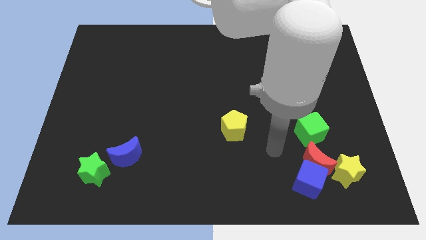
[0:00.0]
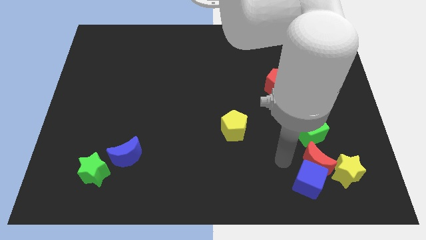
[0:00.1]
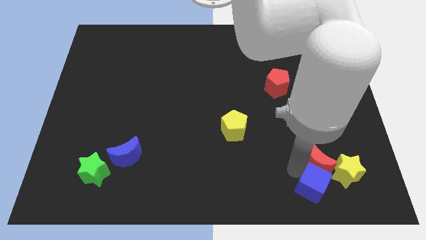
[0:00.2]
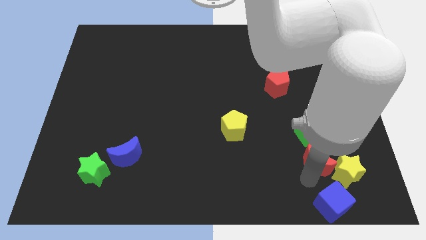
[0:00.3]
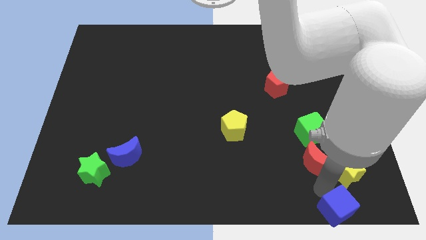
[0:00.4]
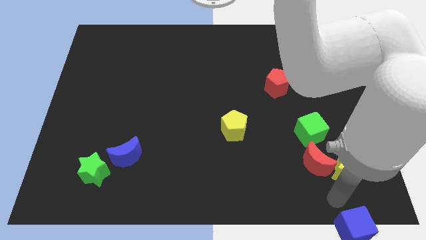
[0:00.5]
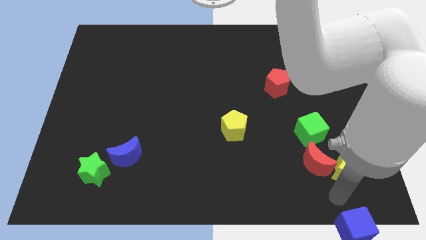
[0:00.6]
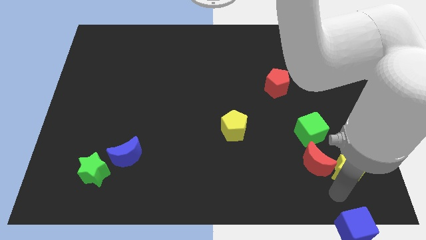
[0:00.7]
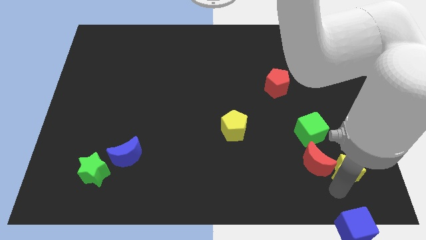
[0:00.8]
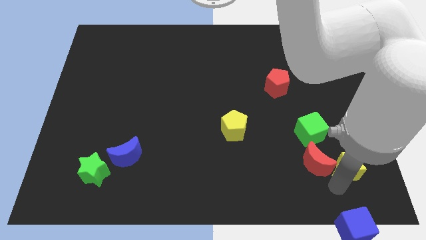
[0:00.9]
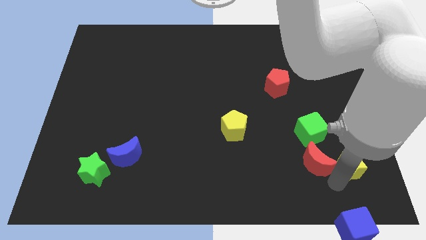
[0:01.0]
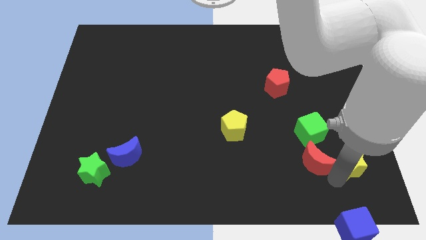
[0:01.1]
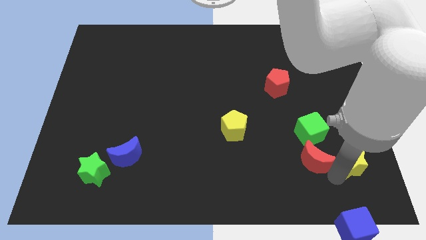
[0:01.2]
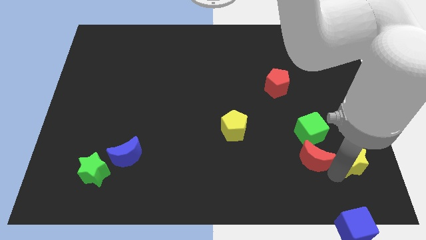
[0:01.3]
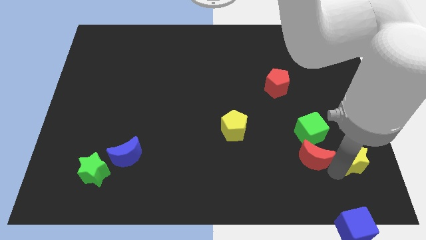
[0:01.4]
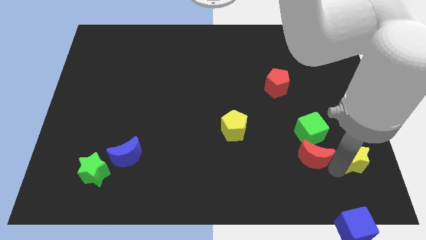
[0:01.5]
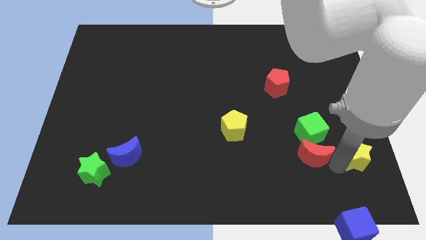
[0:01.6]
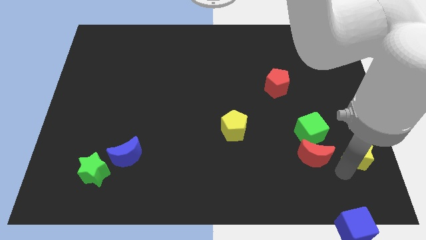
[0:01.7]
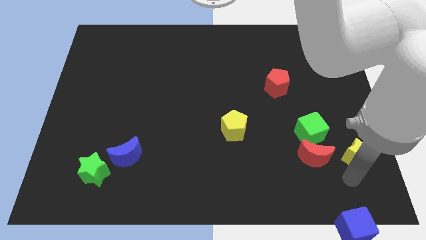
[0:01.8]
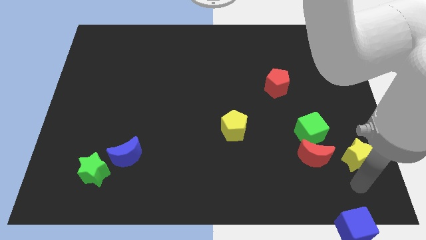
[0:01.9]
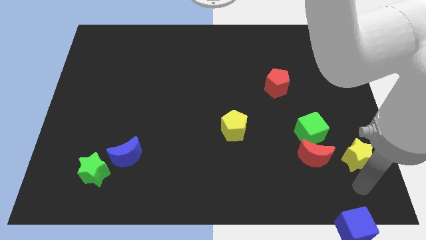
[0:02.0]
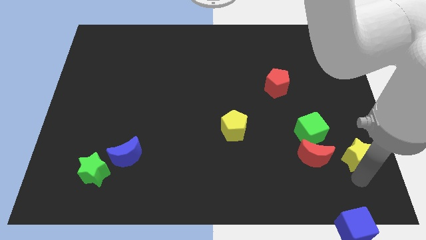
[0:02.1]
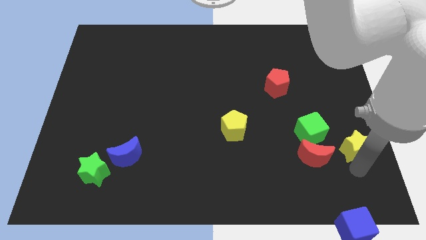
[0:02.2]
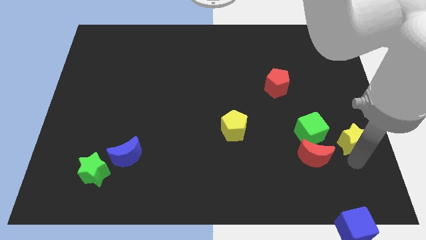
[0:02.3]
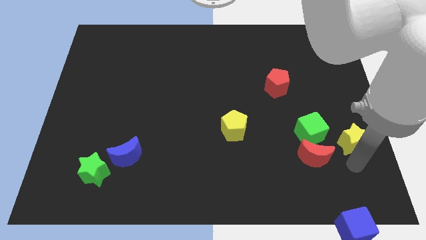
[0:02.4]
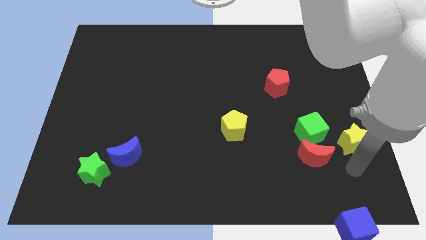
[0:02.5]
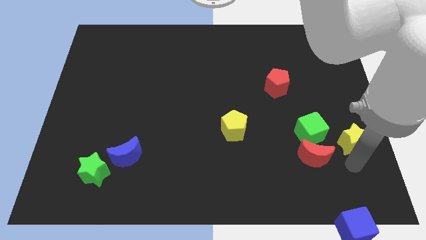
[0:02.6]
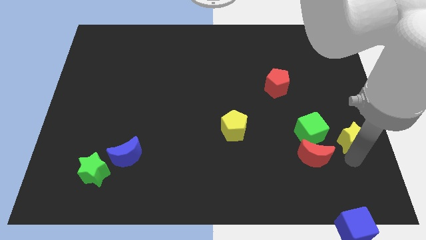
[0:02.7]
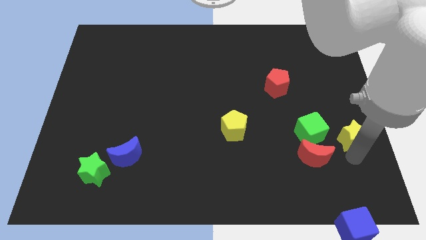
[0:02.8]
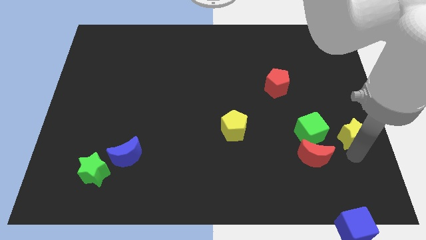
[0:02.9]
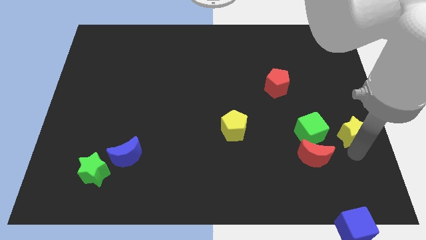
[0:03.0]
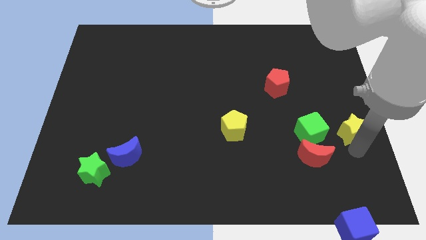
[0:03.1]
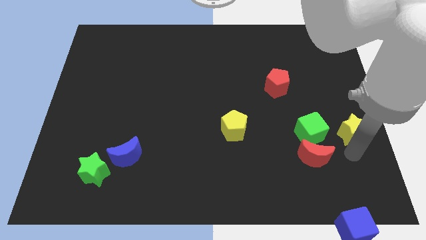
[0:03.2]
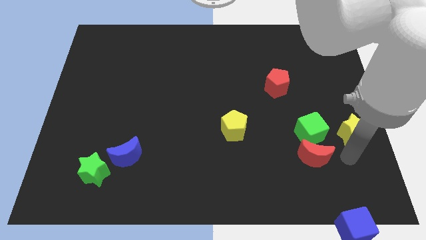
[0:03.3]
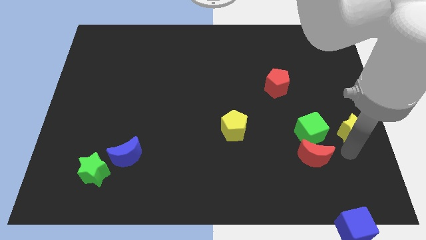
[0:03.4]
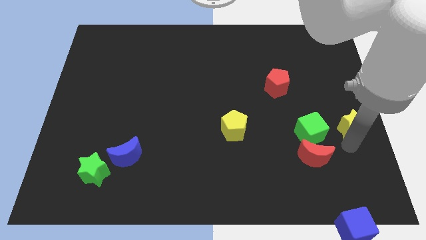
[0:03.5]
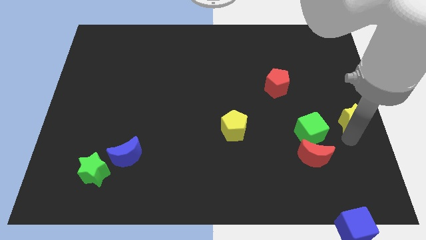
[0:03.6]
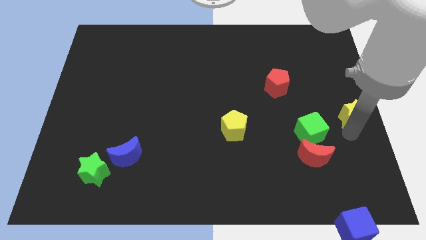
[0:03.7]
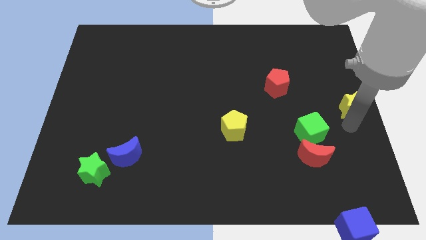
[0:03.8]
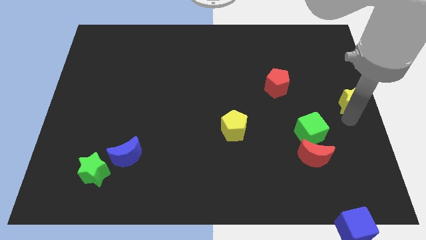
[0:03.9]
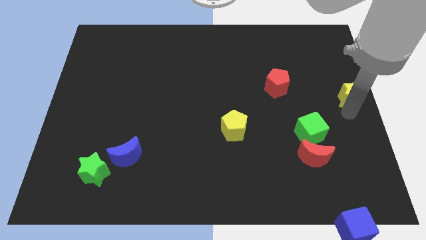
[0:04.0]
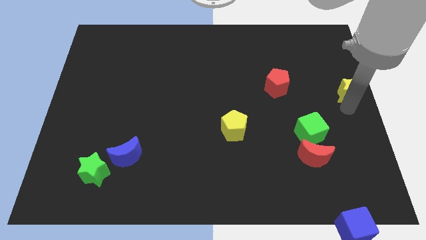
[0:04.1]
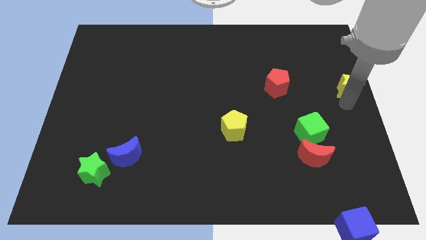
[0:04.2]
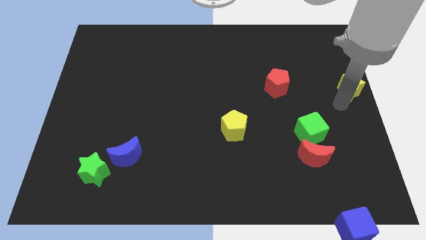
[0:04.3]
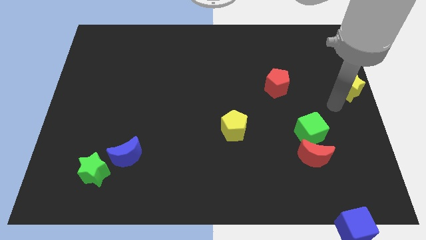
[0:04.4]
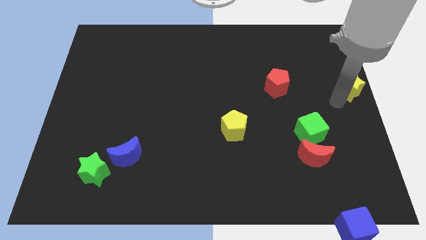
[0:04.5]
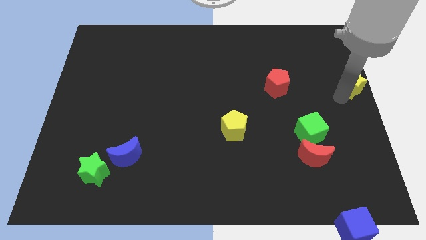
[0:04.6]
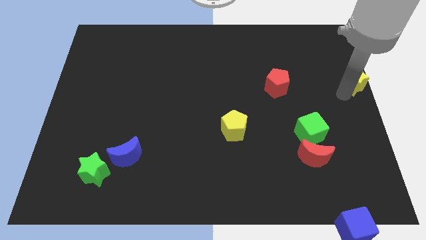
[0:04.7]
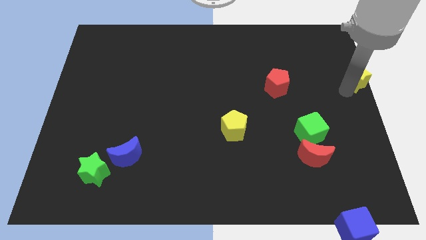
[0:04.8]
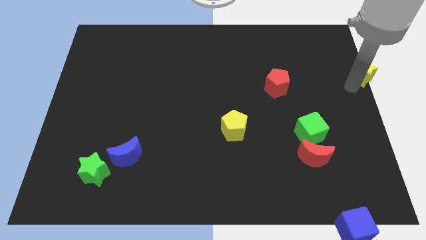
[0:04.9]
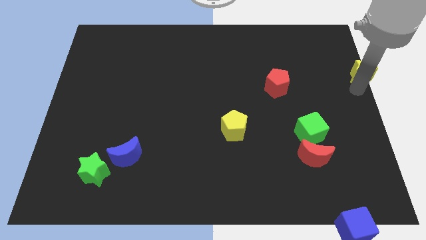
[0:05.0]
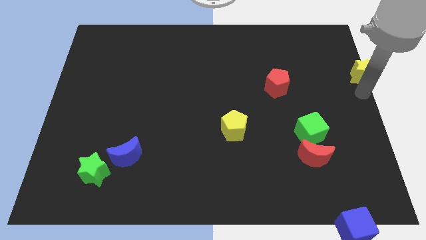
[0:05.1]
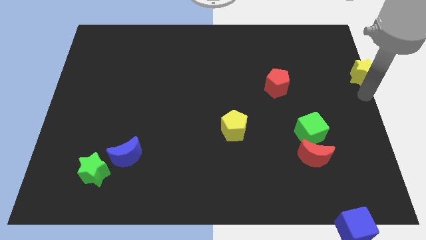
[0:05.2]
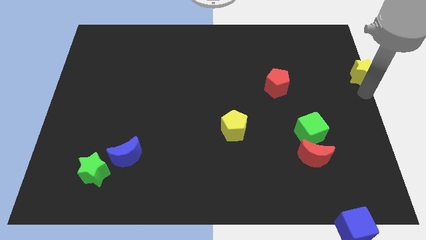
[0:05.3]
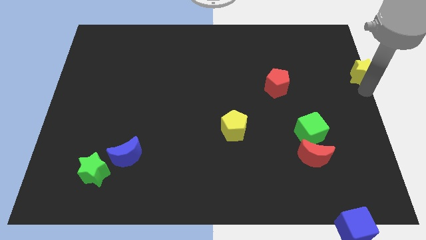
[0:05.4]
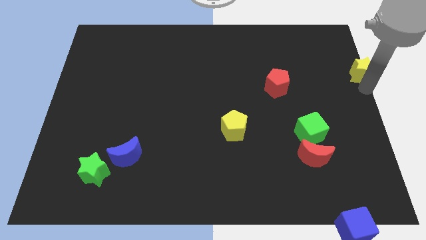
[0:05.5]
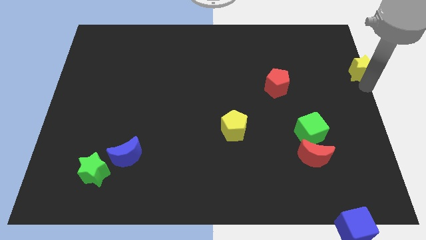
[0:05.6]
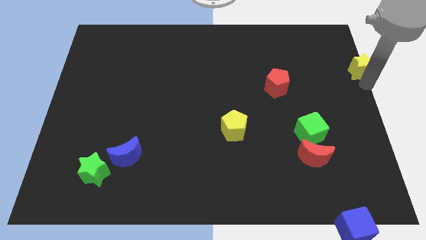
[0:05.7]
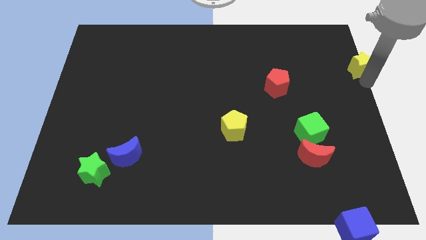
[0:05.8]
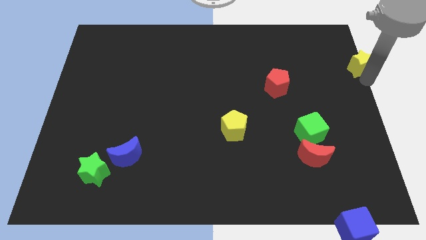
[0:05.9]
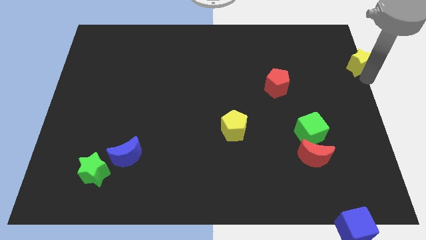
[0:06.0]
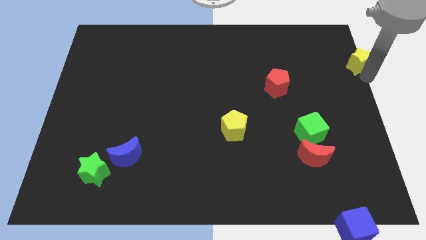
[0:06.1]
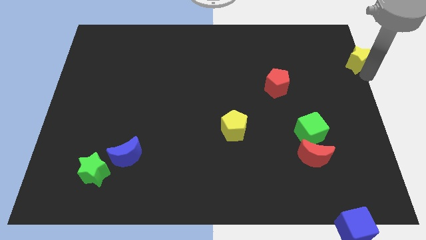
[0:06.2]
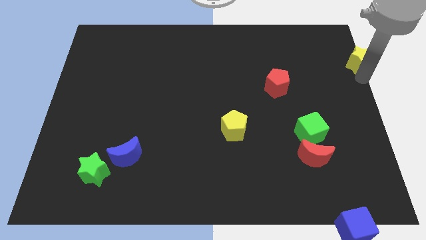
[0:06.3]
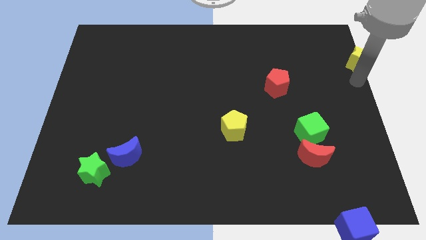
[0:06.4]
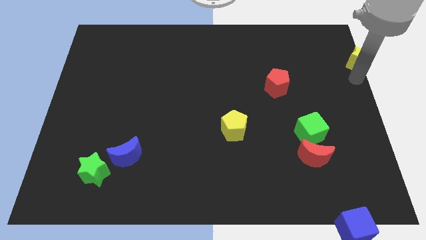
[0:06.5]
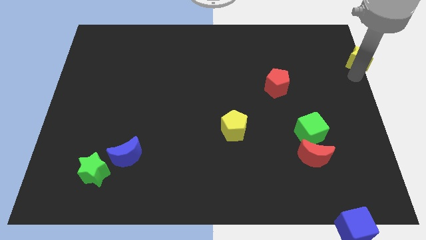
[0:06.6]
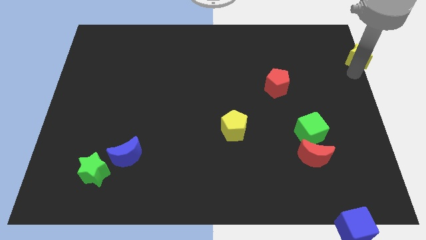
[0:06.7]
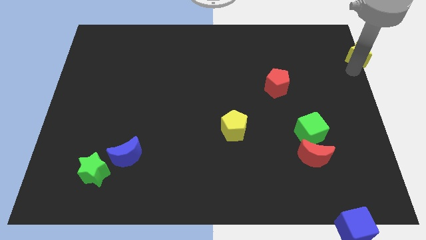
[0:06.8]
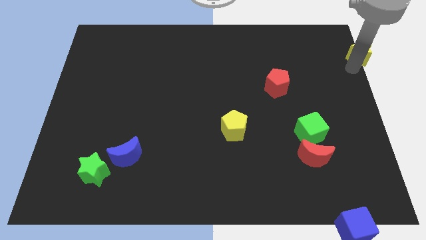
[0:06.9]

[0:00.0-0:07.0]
push the yellow star to the top right

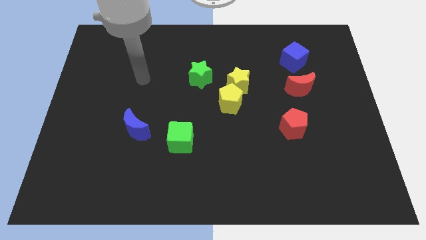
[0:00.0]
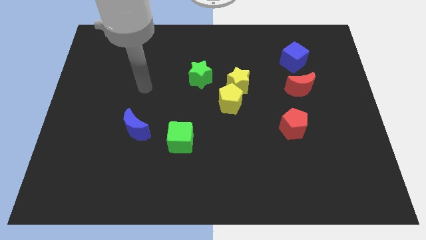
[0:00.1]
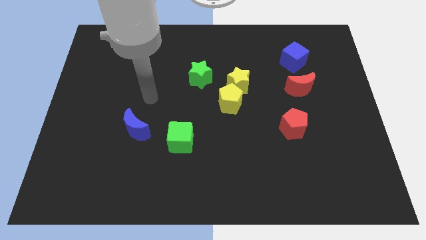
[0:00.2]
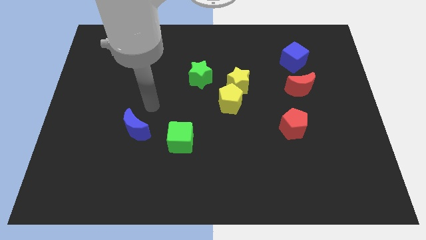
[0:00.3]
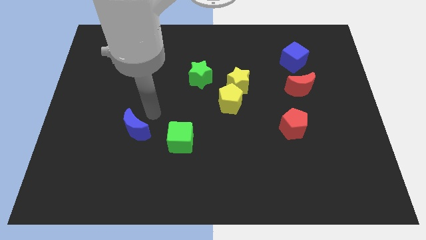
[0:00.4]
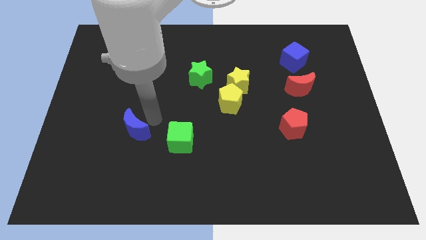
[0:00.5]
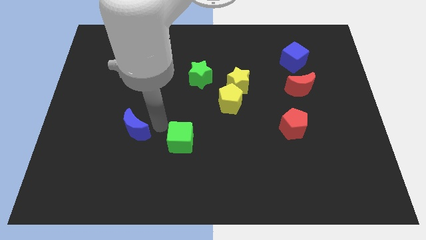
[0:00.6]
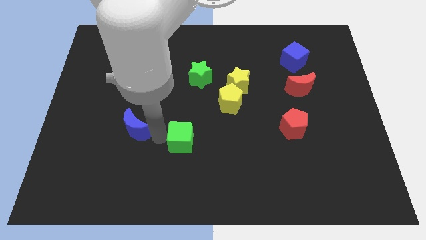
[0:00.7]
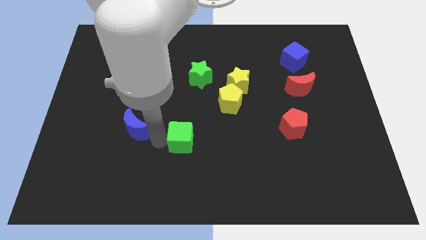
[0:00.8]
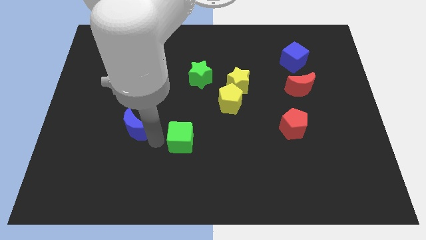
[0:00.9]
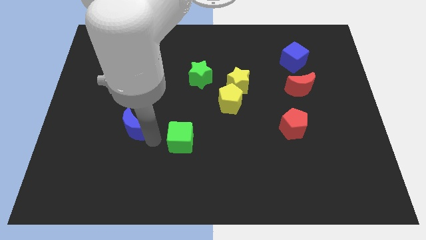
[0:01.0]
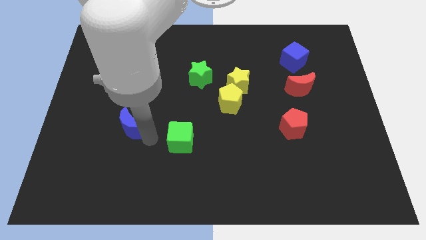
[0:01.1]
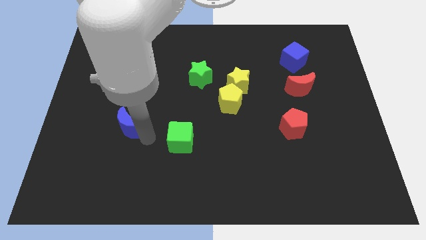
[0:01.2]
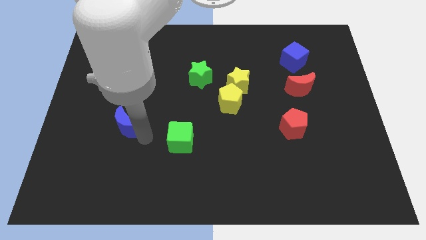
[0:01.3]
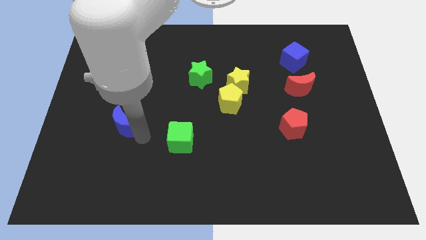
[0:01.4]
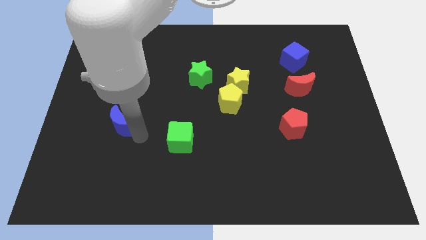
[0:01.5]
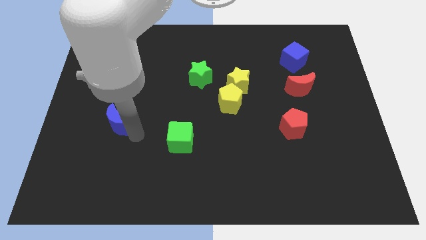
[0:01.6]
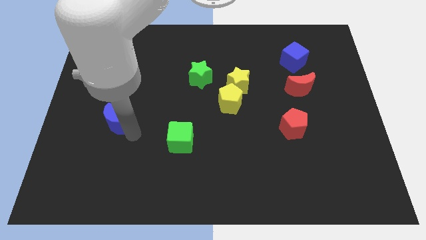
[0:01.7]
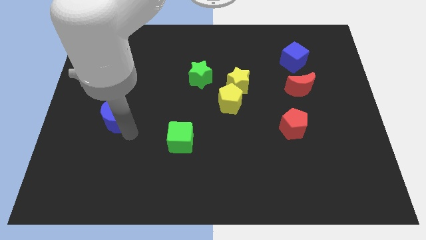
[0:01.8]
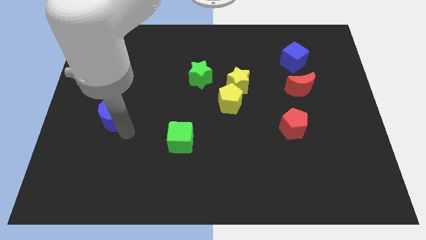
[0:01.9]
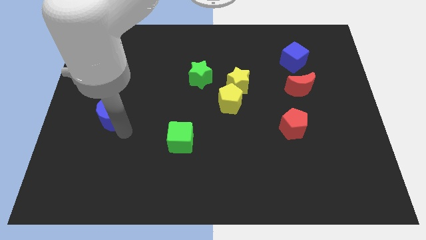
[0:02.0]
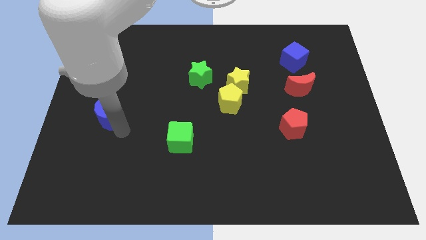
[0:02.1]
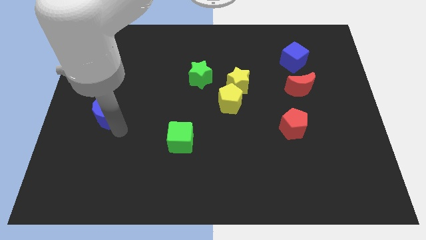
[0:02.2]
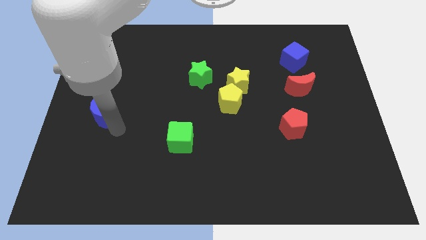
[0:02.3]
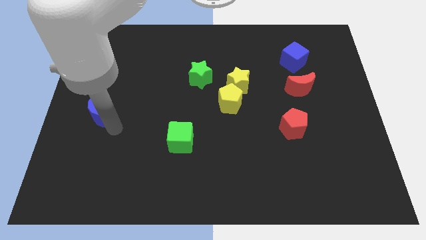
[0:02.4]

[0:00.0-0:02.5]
push the blue moon to the left side of the board
